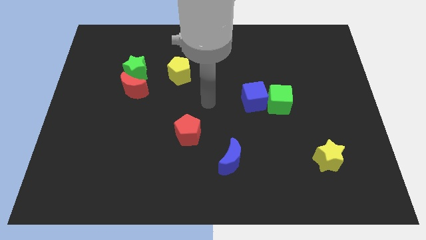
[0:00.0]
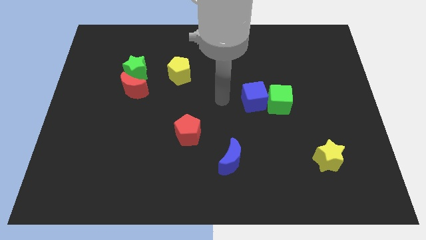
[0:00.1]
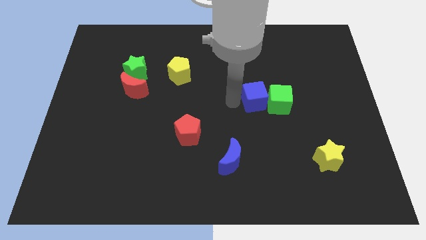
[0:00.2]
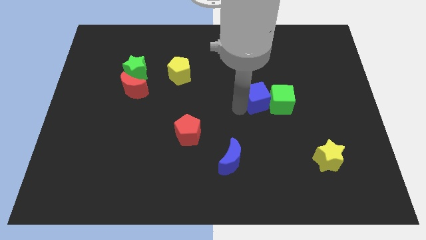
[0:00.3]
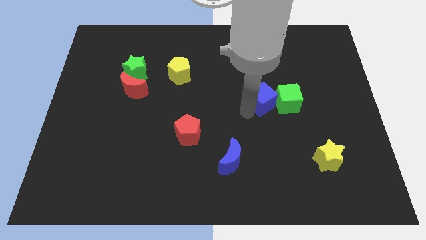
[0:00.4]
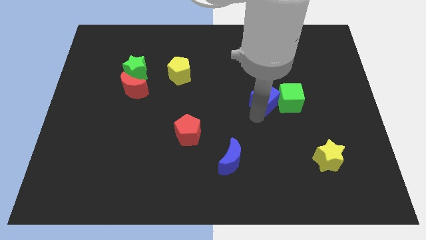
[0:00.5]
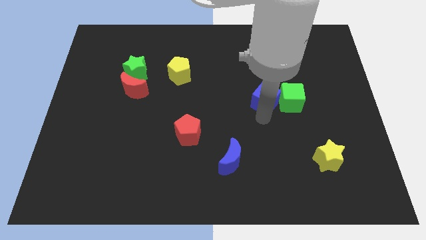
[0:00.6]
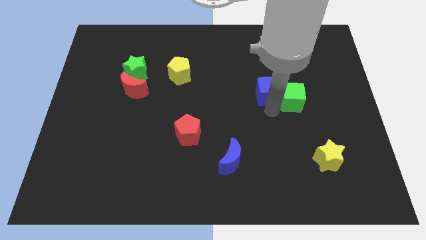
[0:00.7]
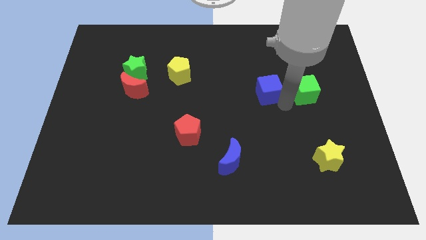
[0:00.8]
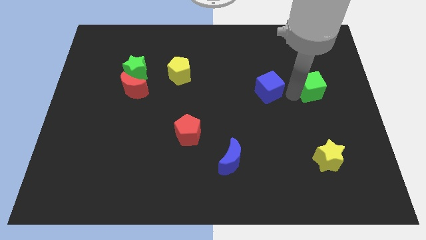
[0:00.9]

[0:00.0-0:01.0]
separate the blue cube from the green cube

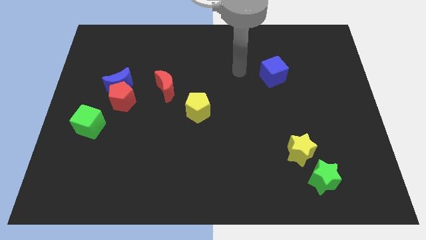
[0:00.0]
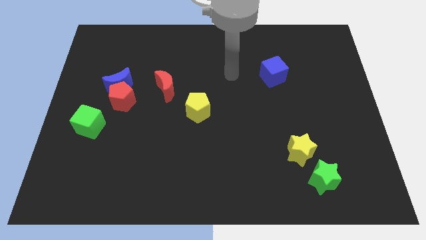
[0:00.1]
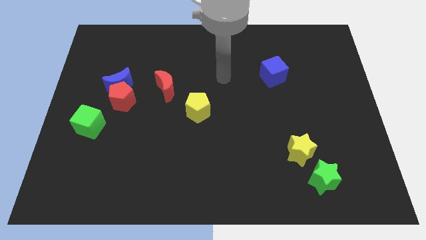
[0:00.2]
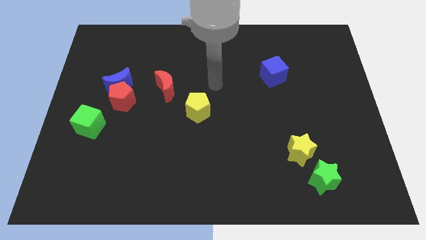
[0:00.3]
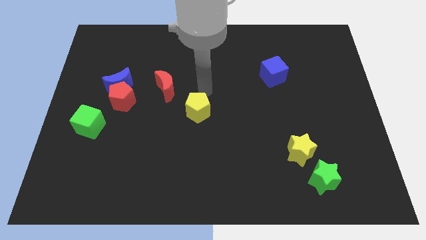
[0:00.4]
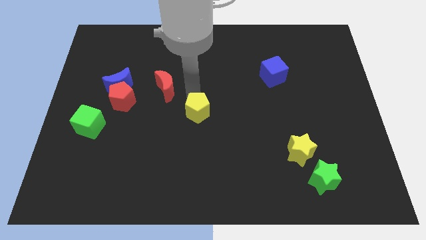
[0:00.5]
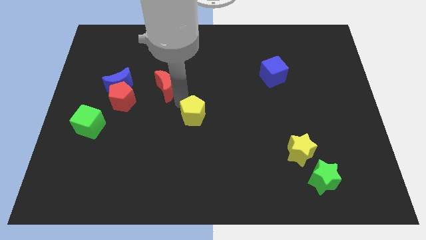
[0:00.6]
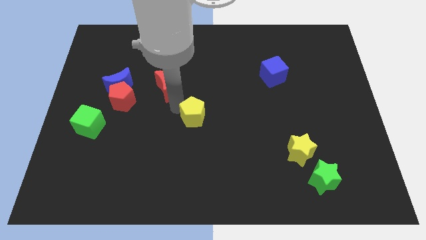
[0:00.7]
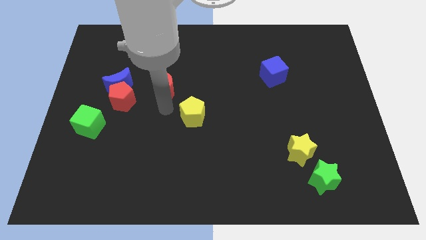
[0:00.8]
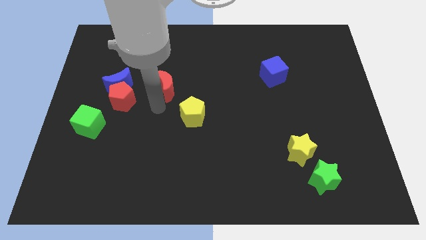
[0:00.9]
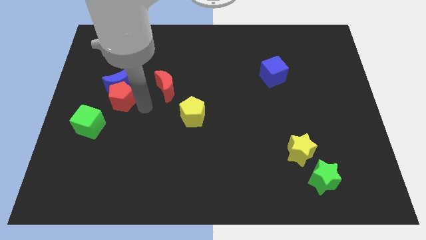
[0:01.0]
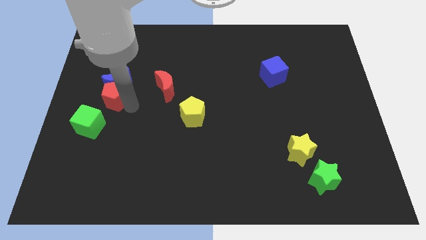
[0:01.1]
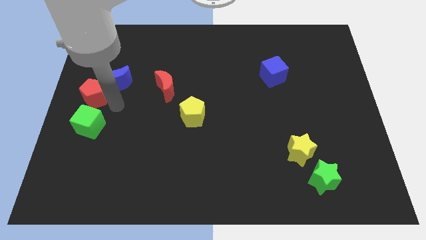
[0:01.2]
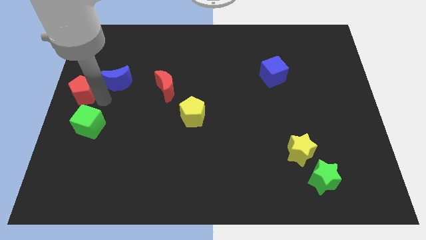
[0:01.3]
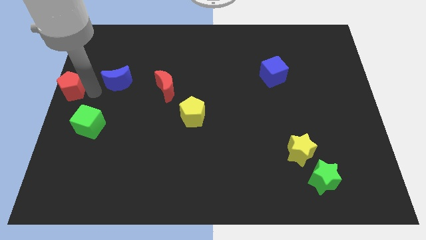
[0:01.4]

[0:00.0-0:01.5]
move the blue moon away from the red pentagon

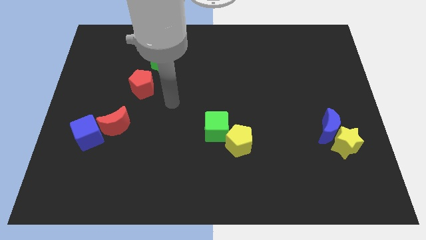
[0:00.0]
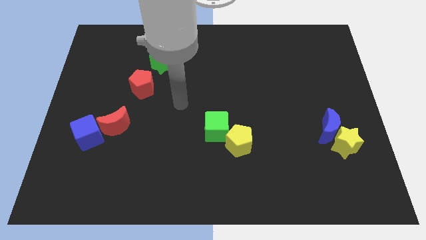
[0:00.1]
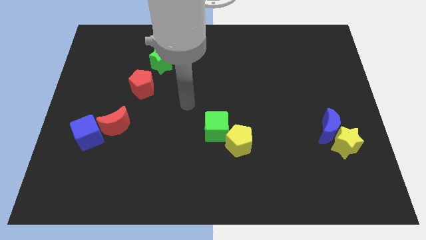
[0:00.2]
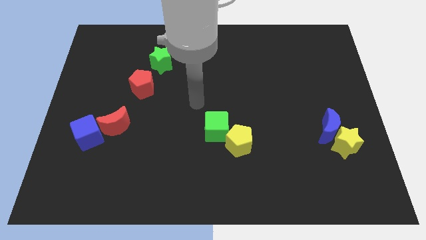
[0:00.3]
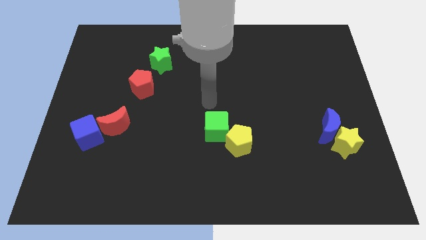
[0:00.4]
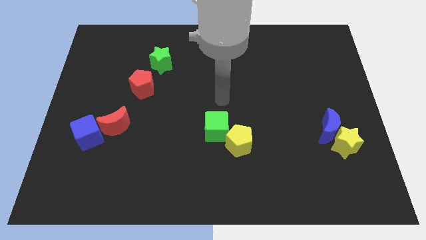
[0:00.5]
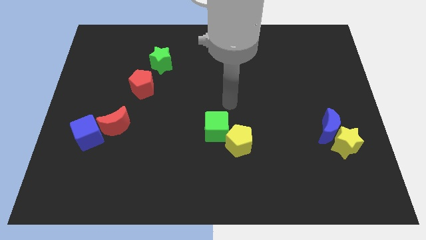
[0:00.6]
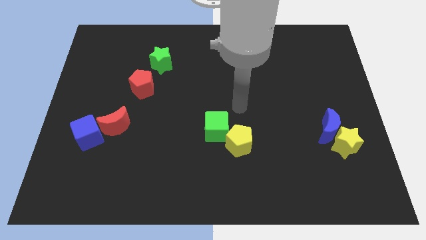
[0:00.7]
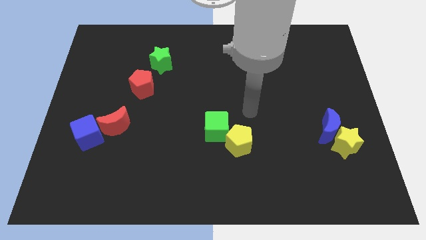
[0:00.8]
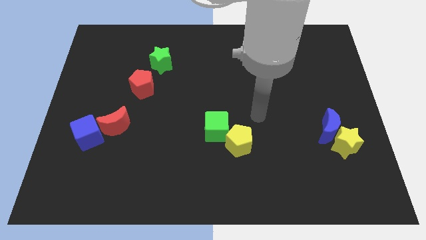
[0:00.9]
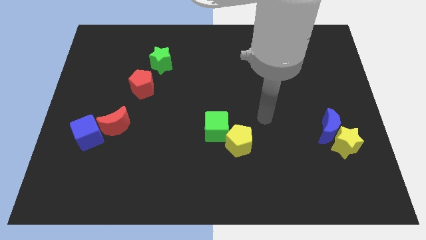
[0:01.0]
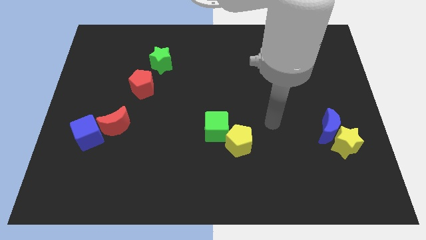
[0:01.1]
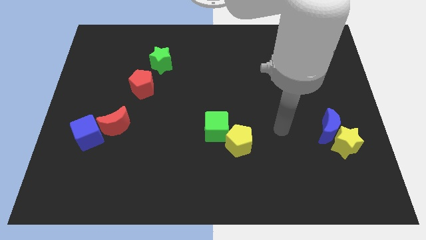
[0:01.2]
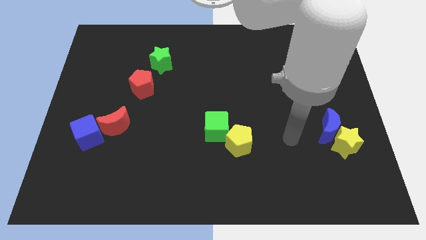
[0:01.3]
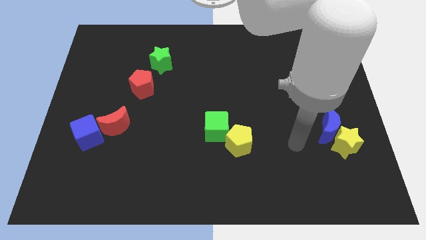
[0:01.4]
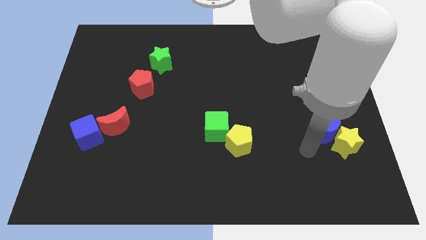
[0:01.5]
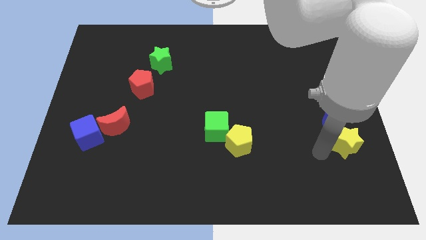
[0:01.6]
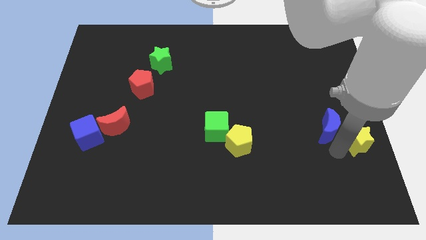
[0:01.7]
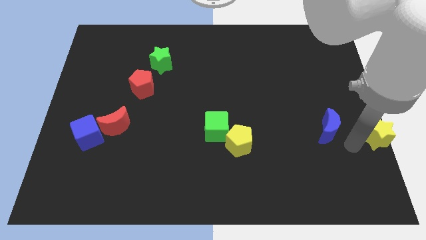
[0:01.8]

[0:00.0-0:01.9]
pull the blue moon apart from the yellow star

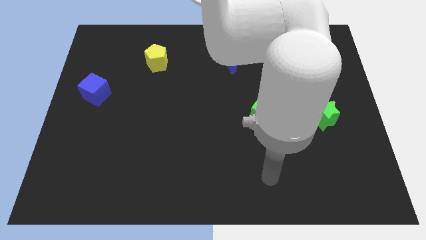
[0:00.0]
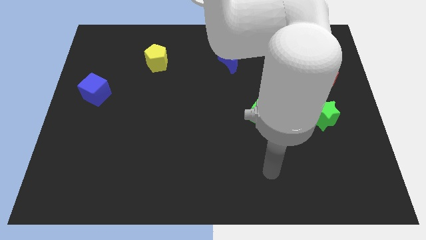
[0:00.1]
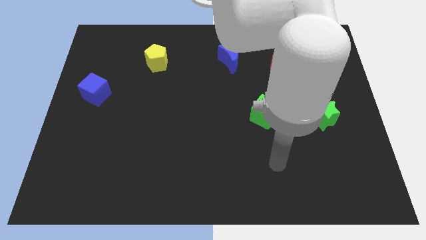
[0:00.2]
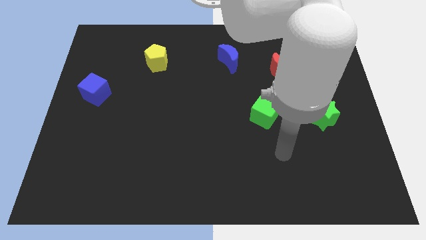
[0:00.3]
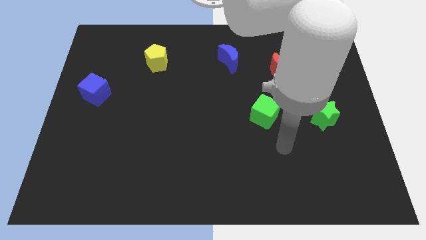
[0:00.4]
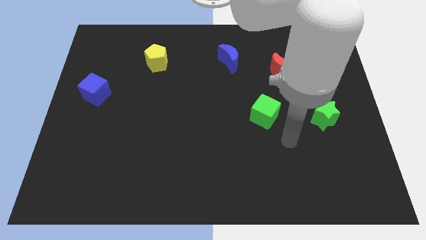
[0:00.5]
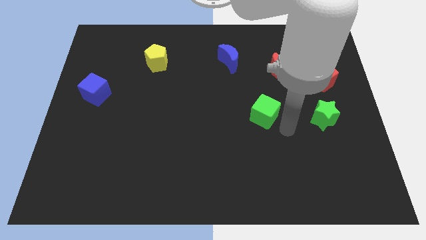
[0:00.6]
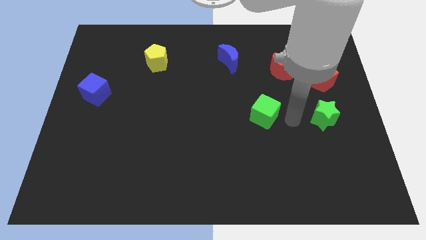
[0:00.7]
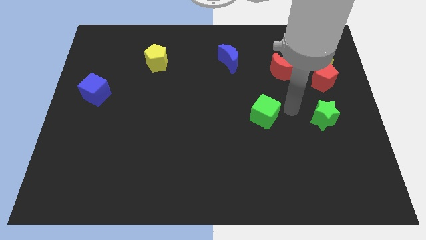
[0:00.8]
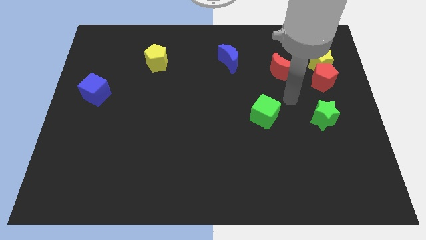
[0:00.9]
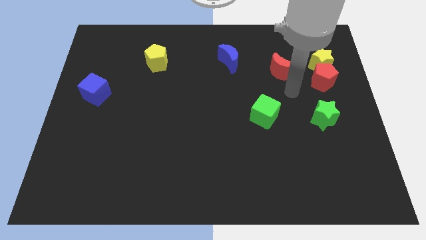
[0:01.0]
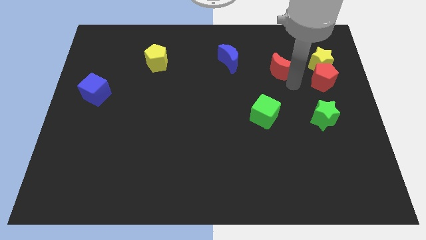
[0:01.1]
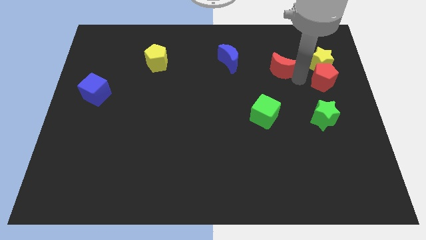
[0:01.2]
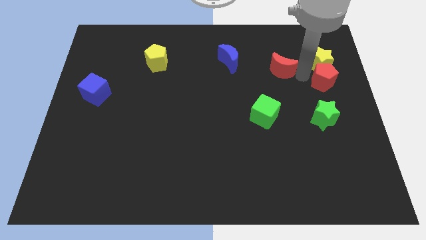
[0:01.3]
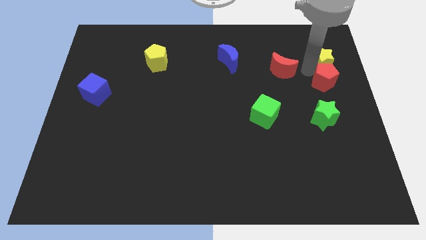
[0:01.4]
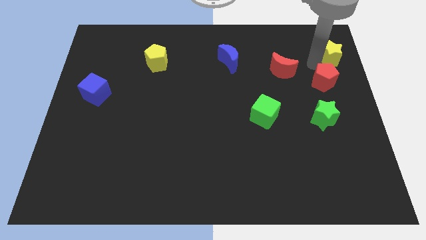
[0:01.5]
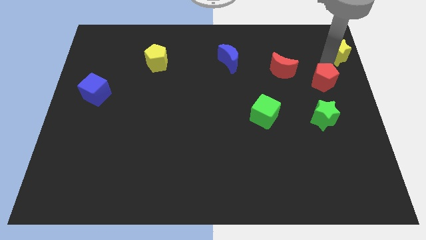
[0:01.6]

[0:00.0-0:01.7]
pull the red pentagon apart from the yellow star

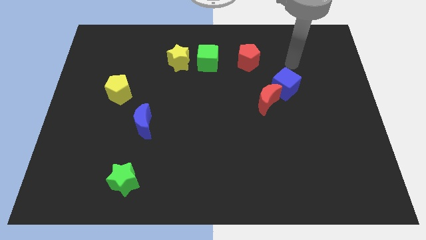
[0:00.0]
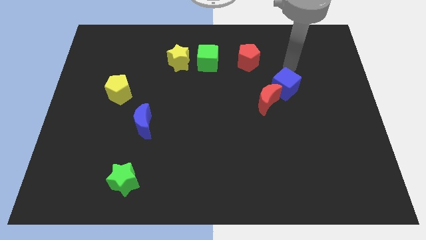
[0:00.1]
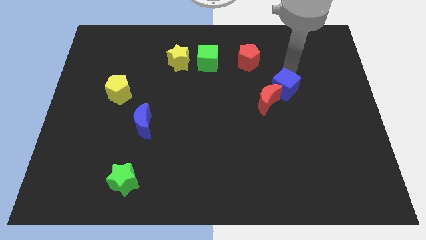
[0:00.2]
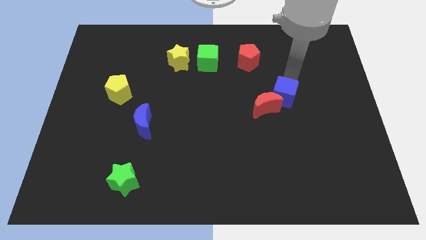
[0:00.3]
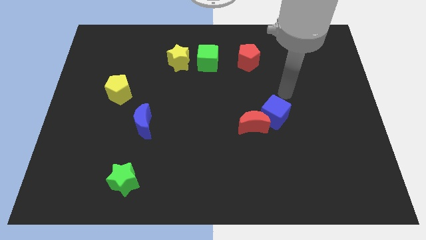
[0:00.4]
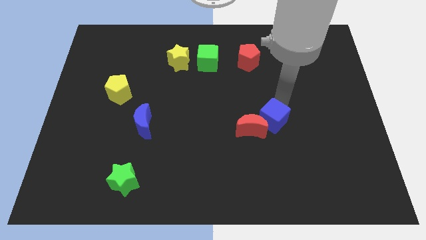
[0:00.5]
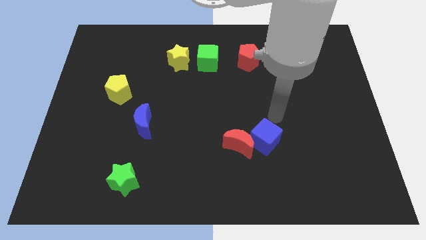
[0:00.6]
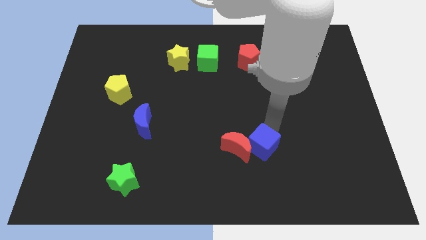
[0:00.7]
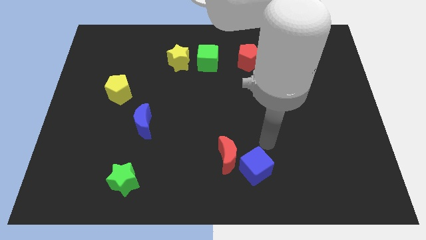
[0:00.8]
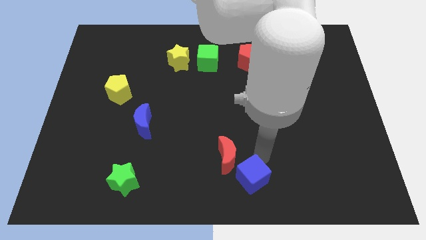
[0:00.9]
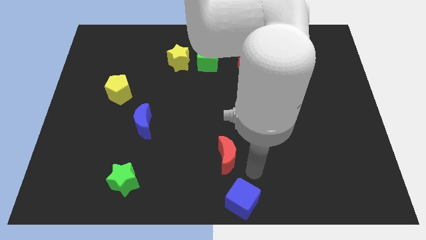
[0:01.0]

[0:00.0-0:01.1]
pull the red moon apart from the blue cube

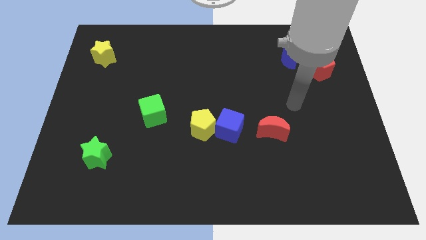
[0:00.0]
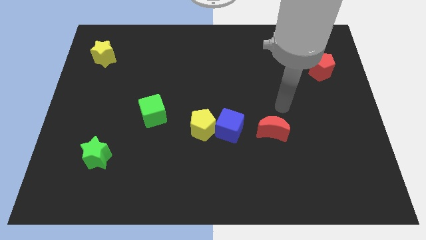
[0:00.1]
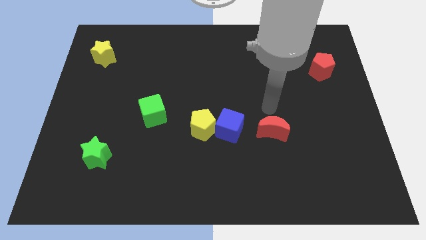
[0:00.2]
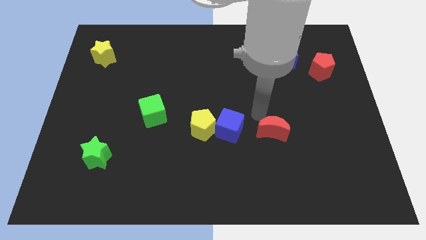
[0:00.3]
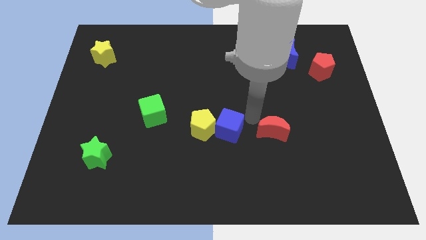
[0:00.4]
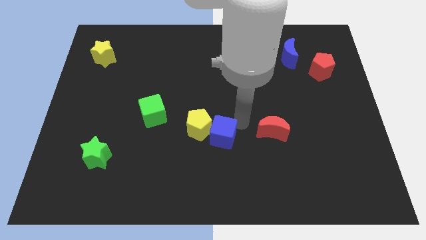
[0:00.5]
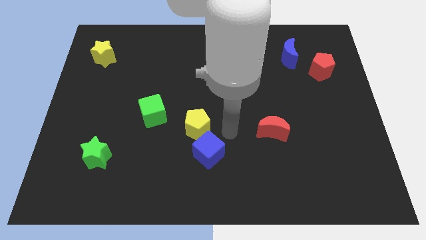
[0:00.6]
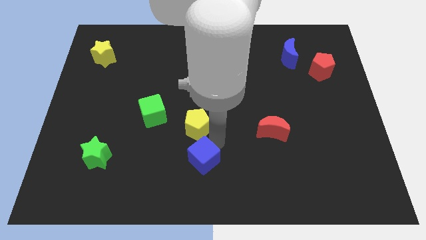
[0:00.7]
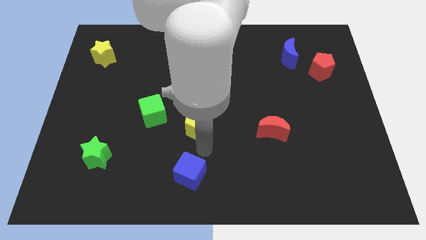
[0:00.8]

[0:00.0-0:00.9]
separate the yellow pentagon from the blue cube

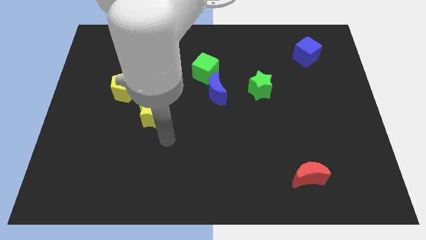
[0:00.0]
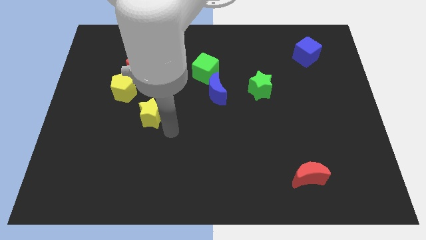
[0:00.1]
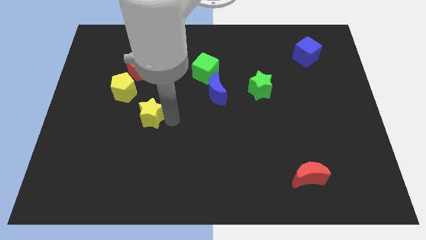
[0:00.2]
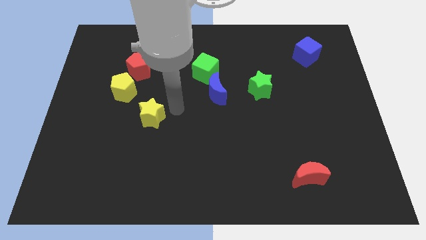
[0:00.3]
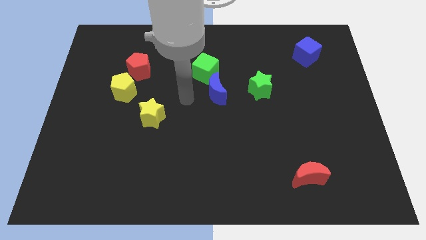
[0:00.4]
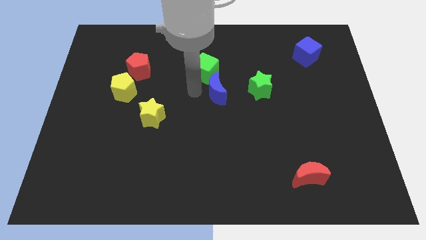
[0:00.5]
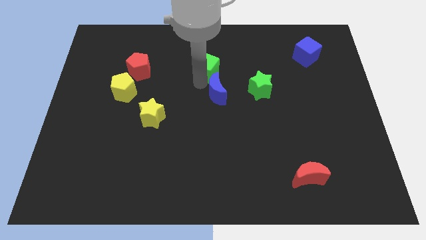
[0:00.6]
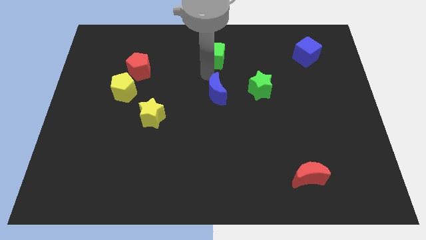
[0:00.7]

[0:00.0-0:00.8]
separate the blue moon from the green cube

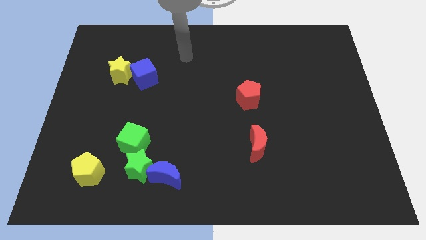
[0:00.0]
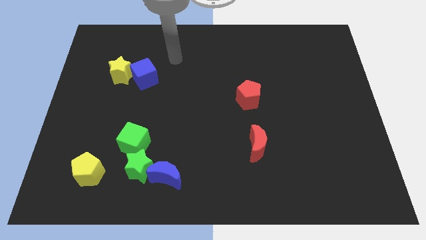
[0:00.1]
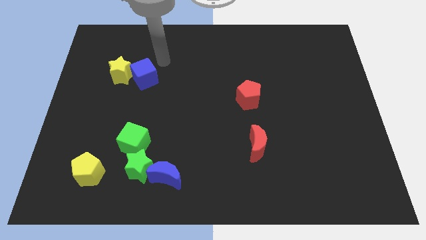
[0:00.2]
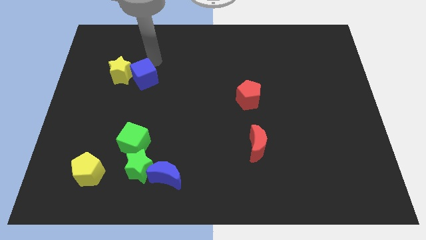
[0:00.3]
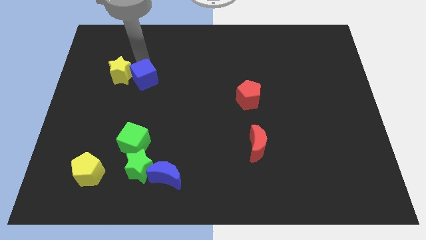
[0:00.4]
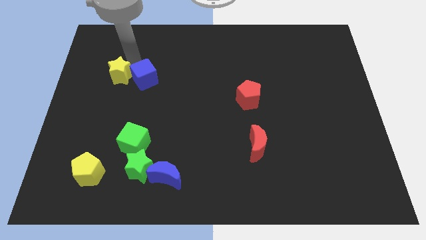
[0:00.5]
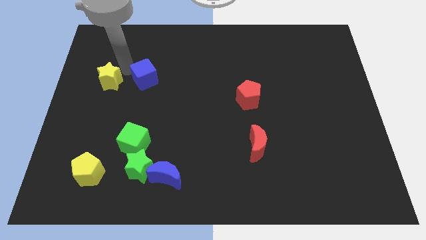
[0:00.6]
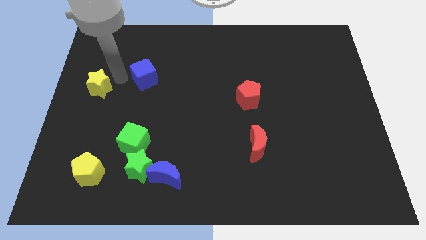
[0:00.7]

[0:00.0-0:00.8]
separate the blue cube from the yellow star
